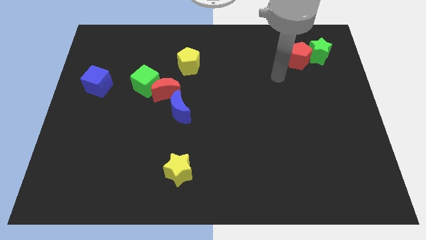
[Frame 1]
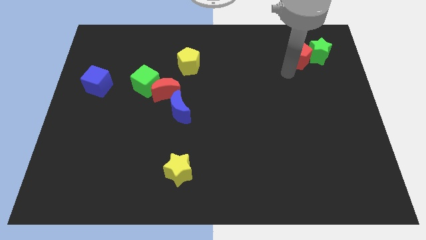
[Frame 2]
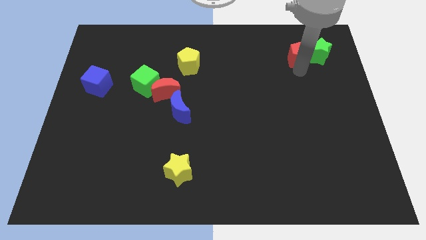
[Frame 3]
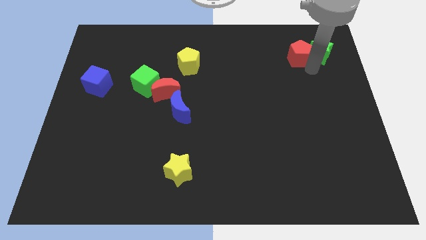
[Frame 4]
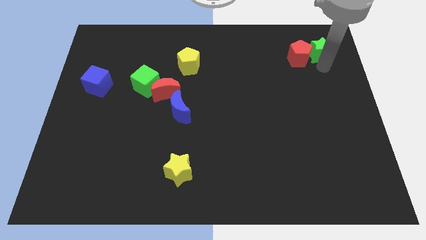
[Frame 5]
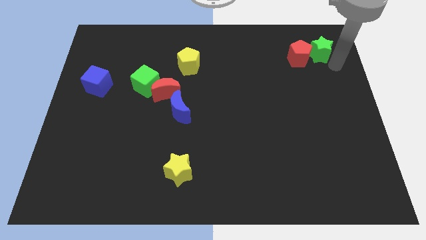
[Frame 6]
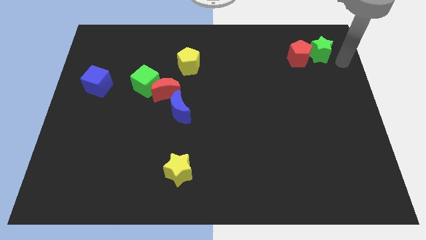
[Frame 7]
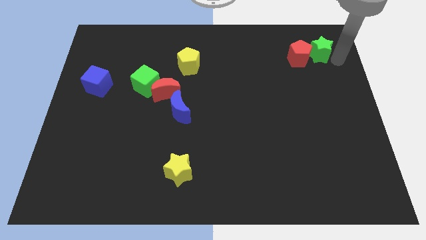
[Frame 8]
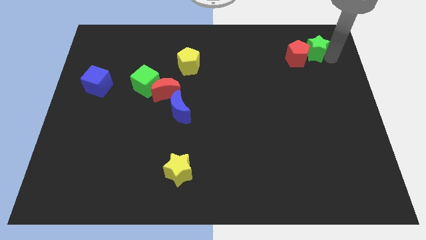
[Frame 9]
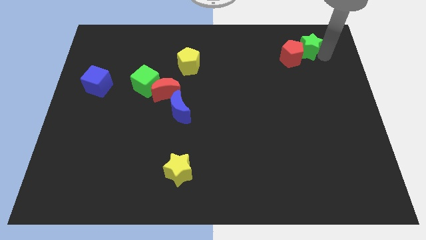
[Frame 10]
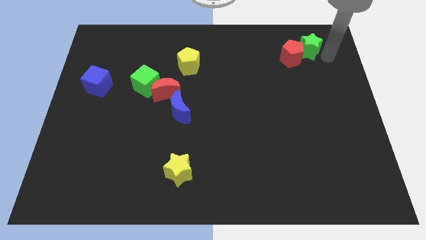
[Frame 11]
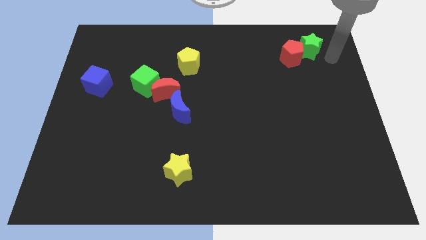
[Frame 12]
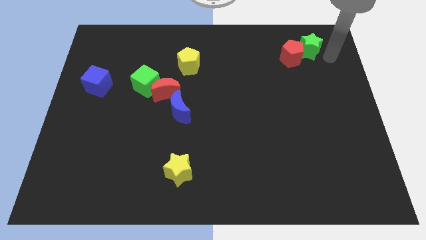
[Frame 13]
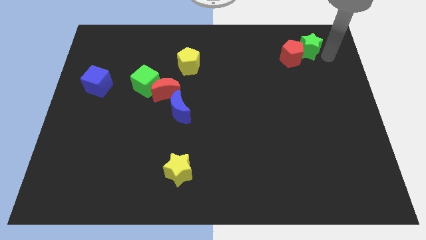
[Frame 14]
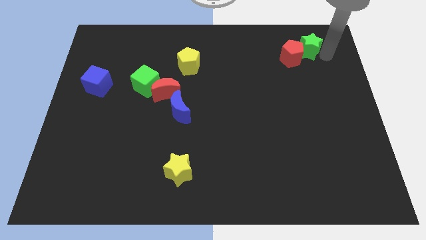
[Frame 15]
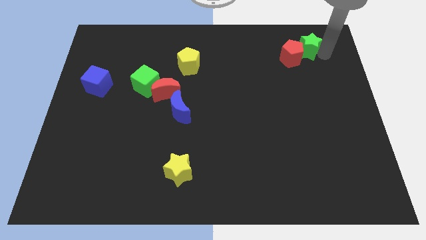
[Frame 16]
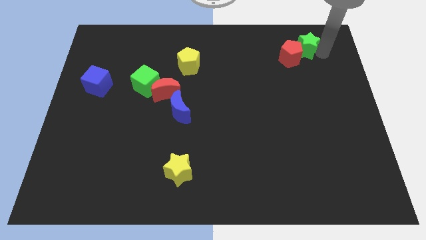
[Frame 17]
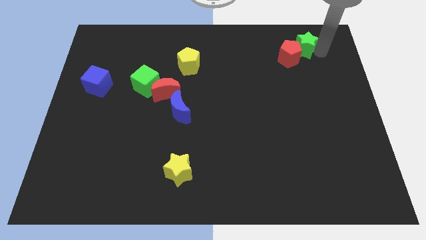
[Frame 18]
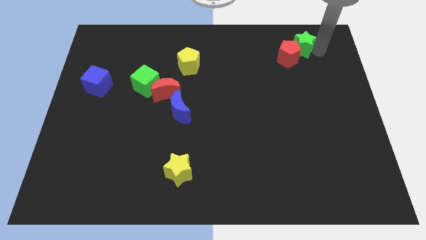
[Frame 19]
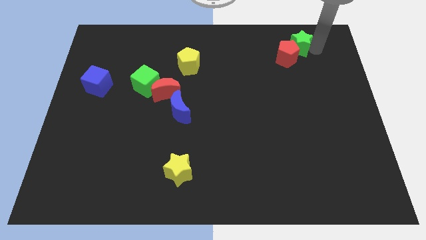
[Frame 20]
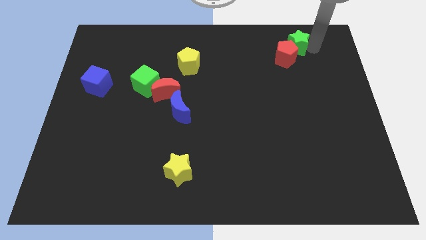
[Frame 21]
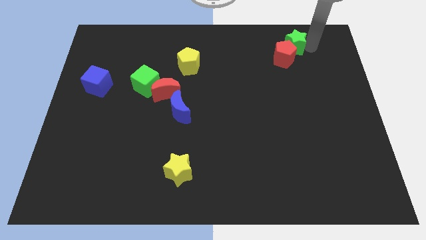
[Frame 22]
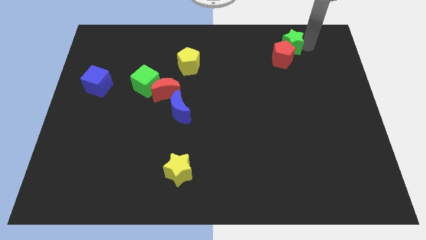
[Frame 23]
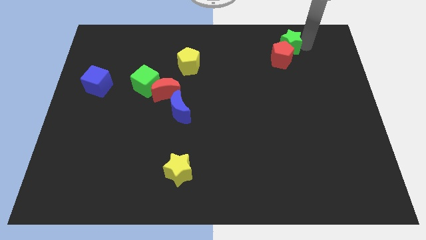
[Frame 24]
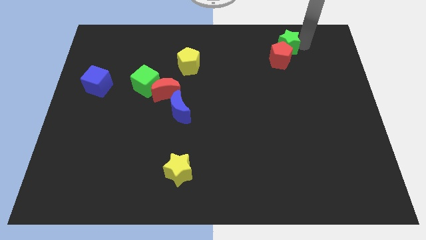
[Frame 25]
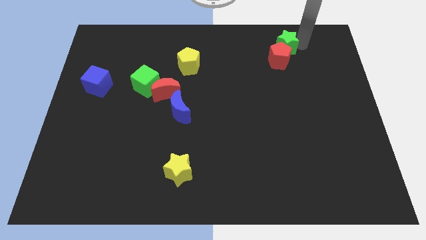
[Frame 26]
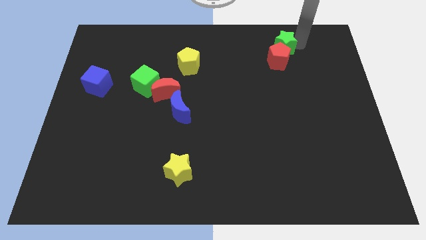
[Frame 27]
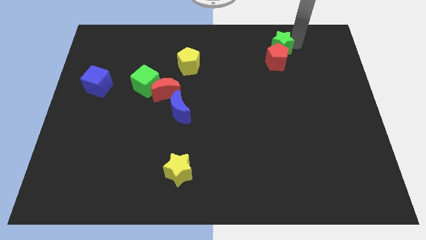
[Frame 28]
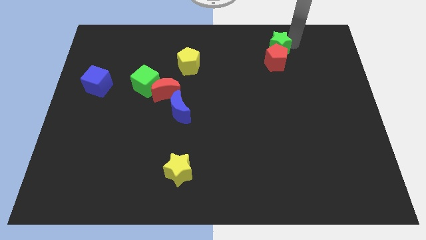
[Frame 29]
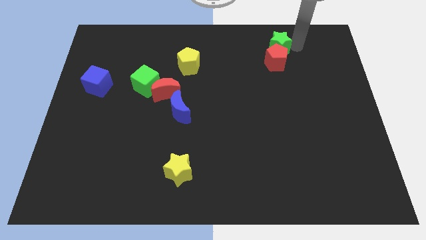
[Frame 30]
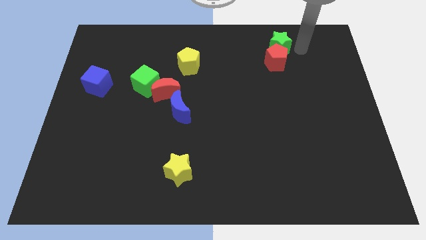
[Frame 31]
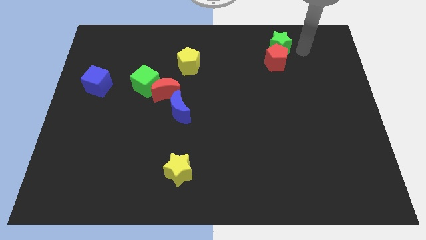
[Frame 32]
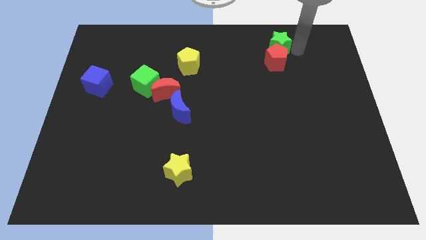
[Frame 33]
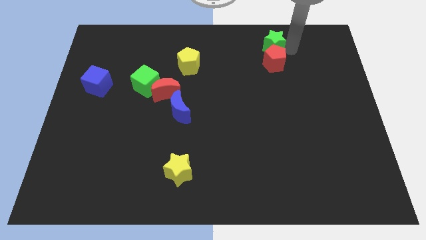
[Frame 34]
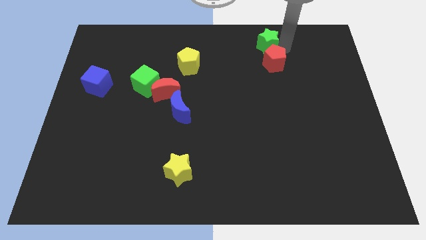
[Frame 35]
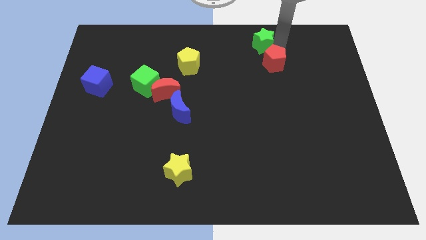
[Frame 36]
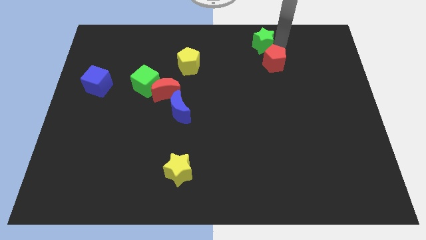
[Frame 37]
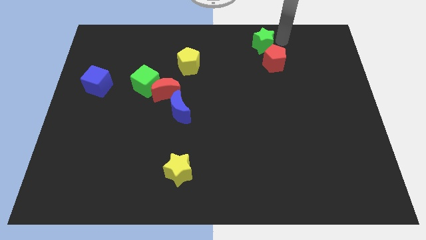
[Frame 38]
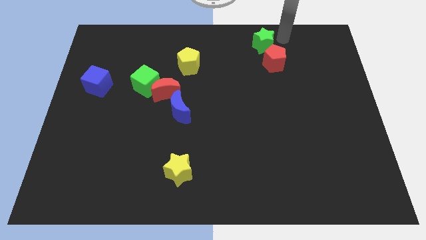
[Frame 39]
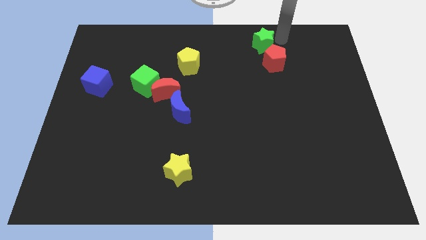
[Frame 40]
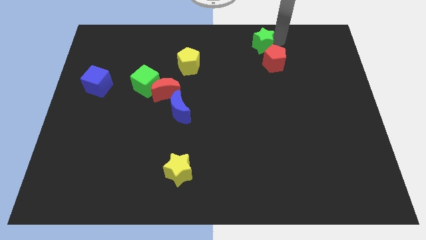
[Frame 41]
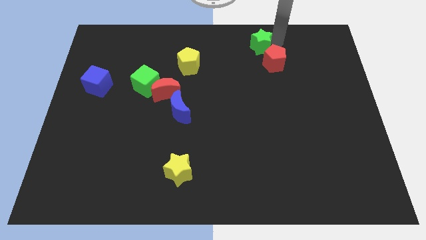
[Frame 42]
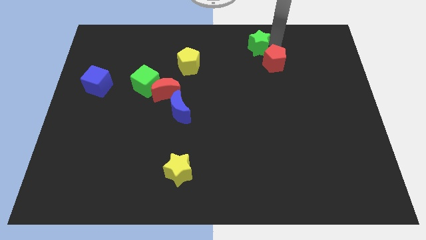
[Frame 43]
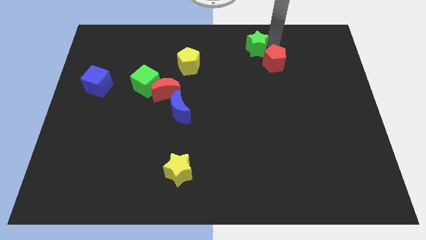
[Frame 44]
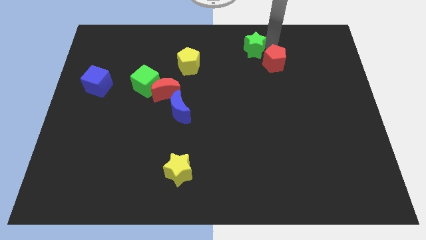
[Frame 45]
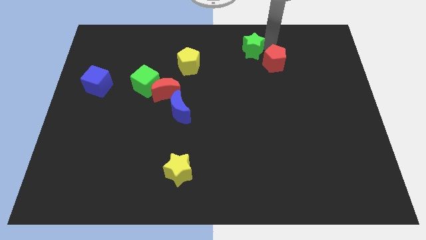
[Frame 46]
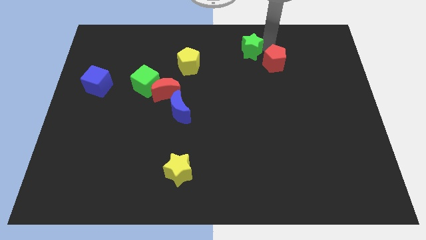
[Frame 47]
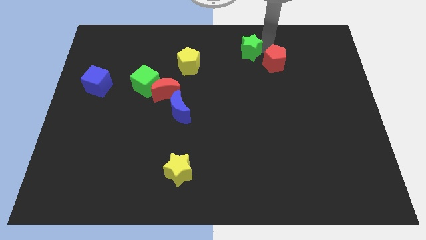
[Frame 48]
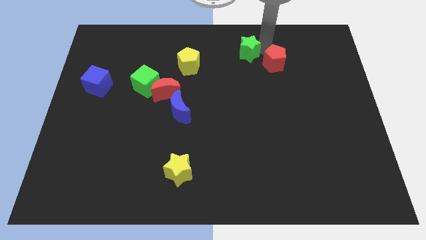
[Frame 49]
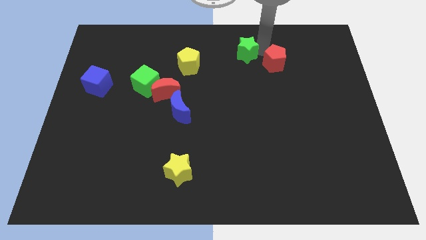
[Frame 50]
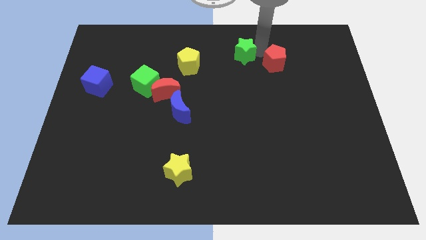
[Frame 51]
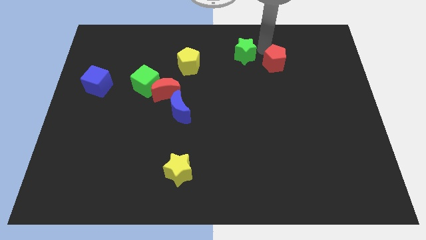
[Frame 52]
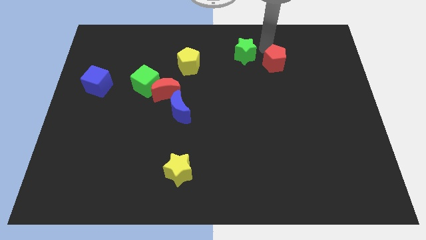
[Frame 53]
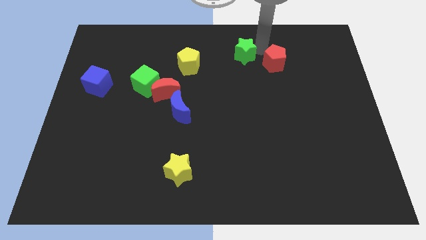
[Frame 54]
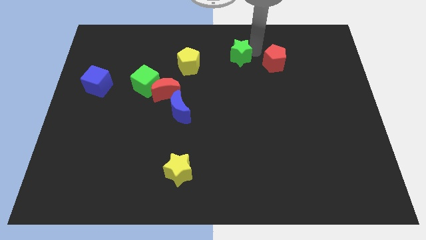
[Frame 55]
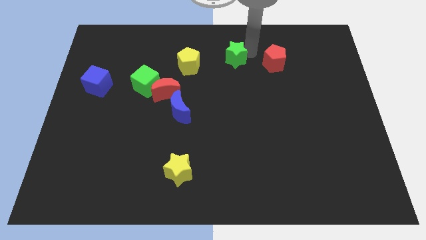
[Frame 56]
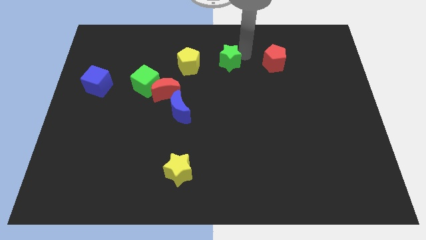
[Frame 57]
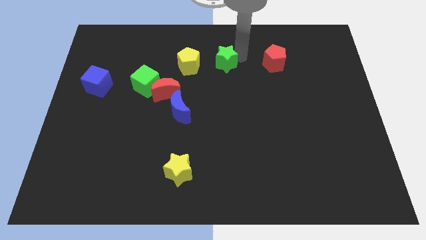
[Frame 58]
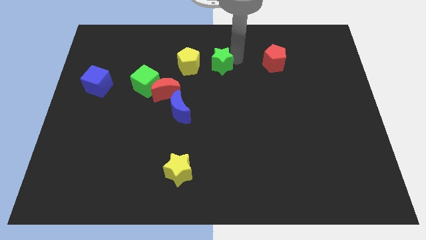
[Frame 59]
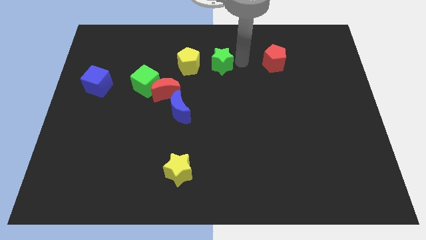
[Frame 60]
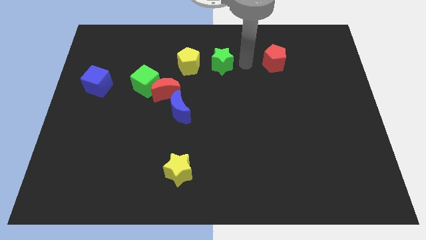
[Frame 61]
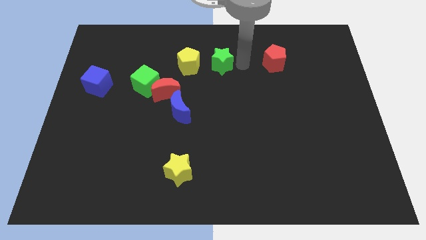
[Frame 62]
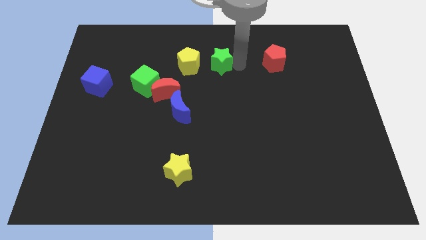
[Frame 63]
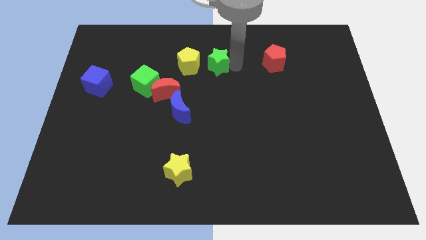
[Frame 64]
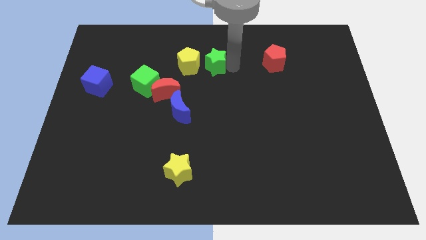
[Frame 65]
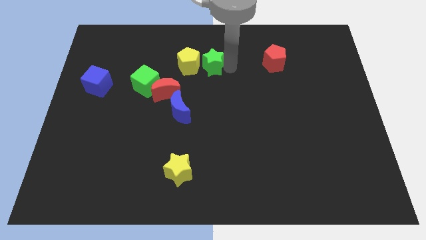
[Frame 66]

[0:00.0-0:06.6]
move the green star close to the yellow pentagon
